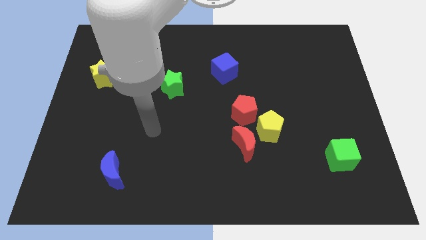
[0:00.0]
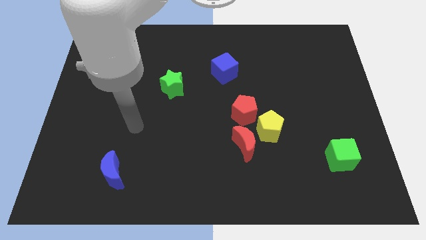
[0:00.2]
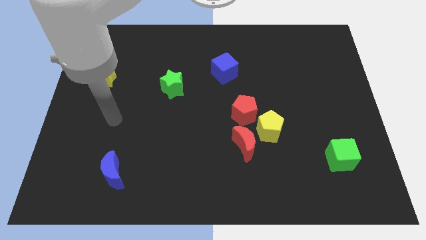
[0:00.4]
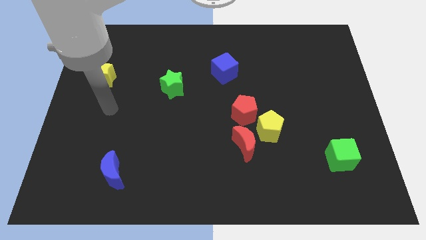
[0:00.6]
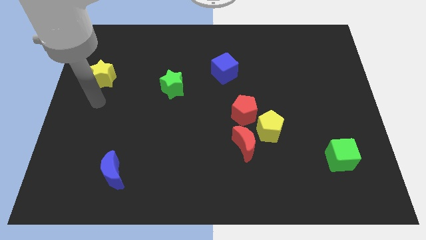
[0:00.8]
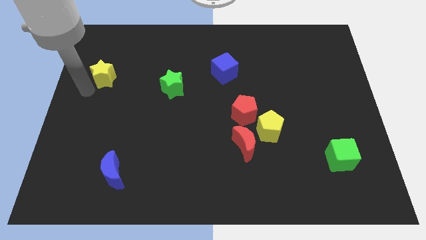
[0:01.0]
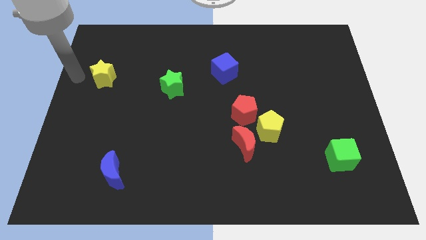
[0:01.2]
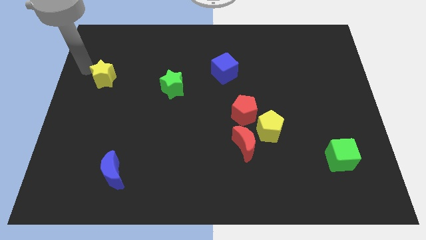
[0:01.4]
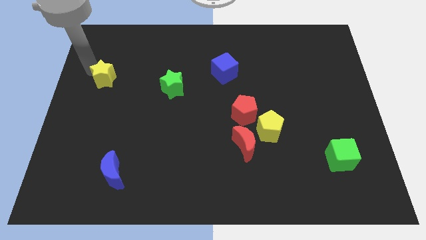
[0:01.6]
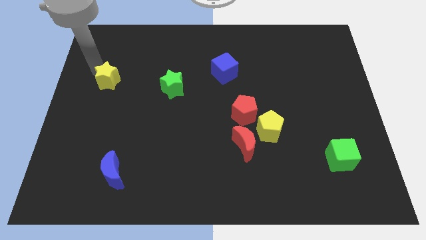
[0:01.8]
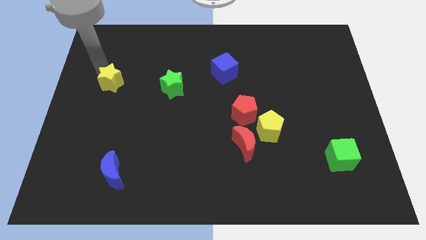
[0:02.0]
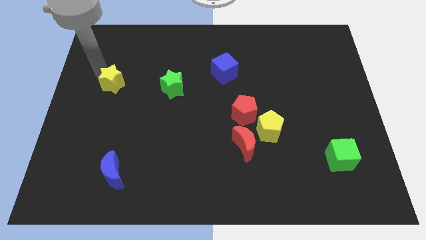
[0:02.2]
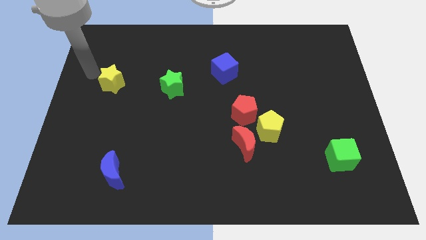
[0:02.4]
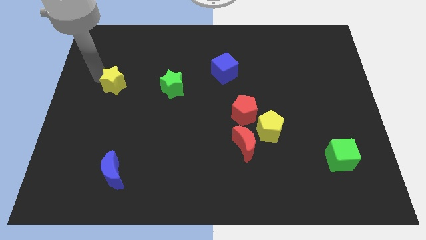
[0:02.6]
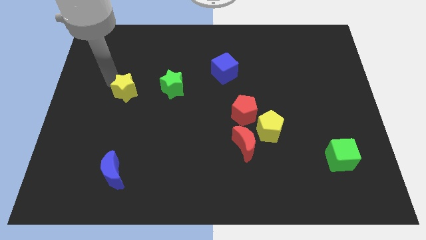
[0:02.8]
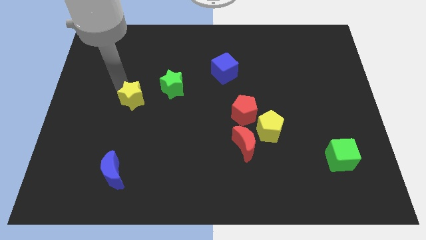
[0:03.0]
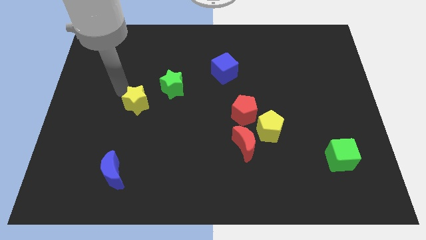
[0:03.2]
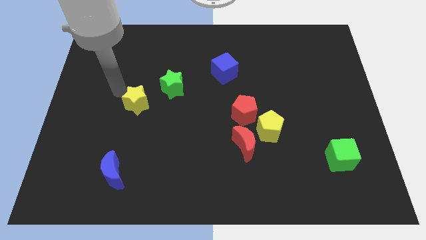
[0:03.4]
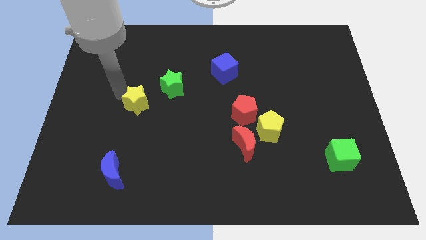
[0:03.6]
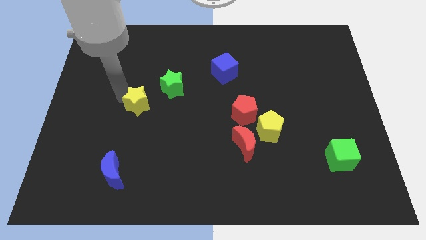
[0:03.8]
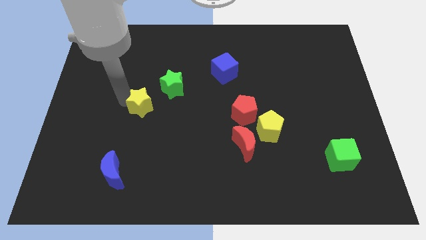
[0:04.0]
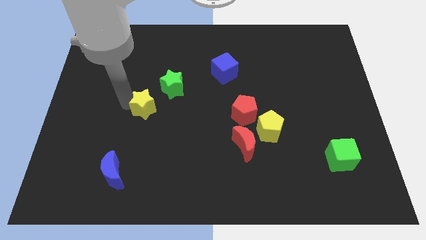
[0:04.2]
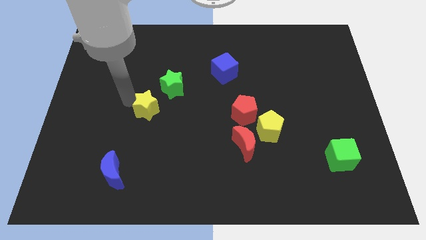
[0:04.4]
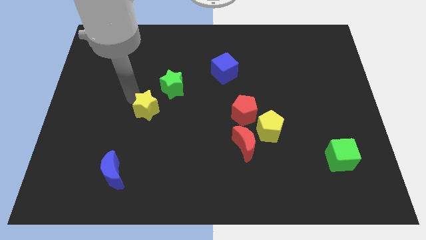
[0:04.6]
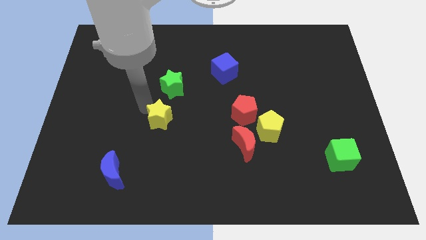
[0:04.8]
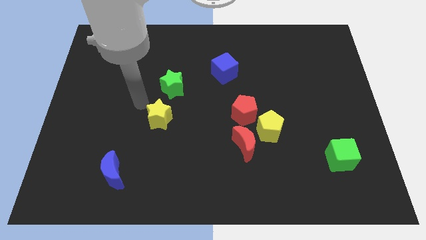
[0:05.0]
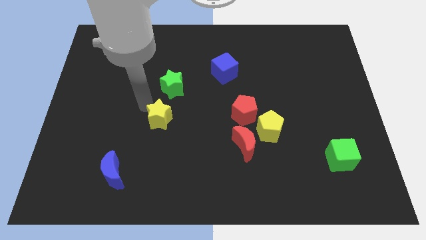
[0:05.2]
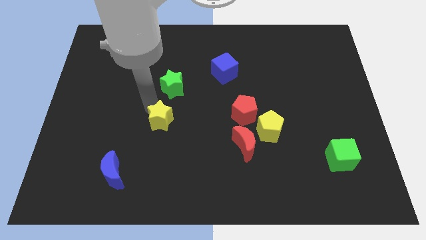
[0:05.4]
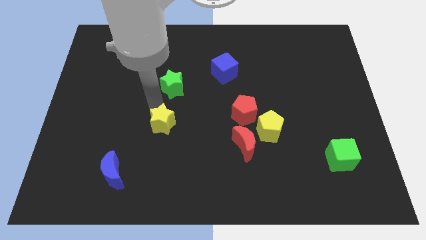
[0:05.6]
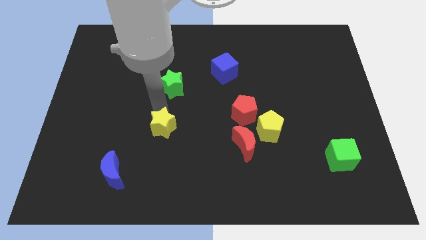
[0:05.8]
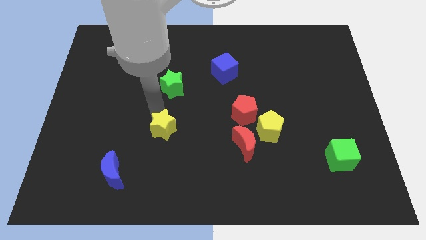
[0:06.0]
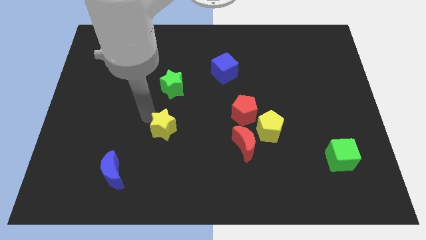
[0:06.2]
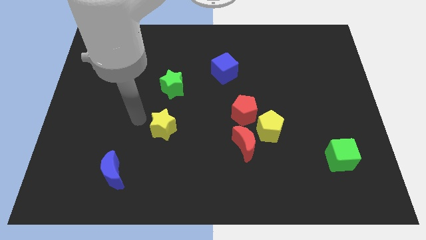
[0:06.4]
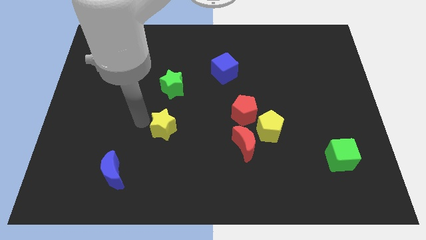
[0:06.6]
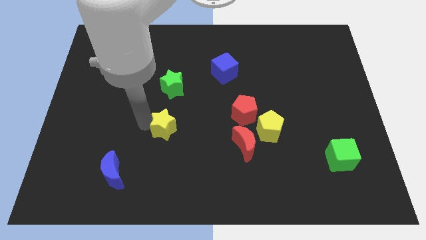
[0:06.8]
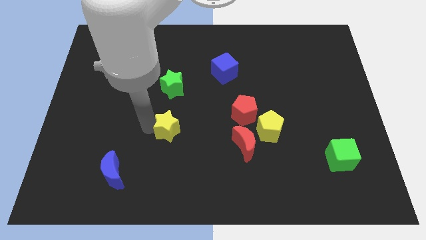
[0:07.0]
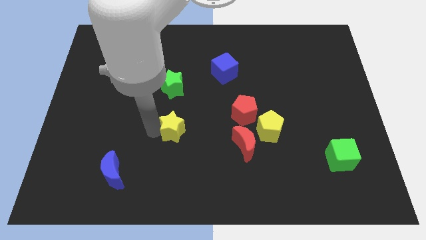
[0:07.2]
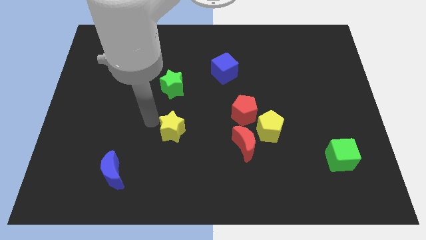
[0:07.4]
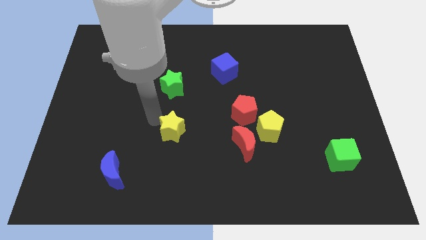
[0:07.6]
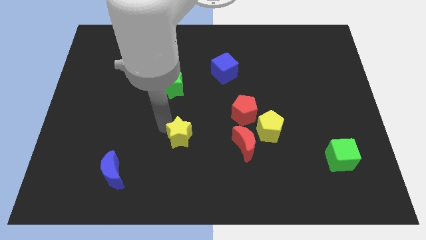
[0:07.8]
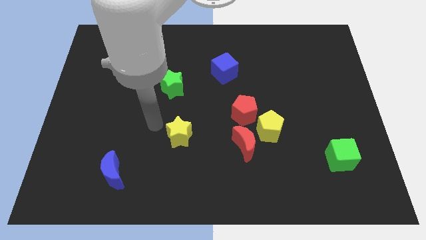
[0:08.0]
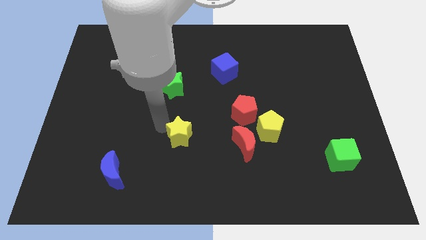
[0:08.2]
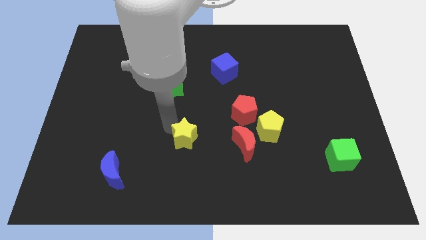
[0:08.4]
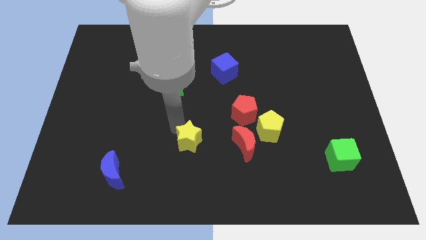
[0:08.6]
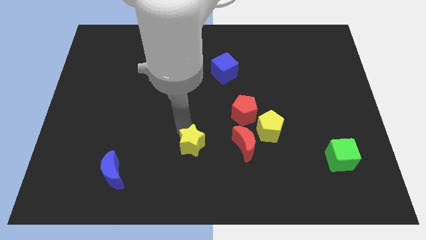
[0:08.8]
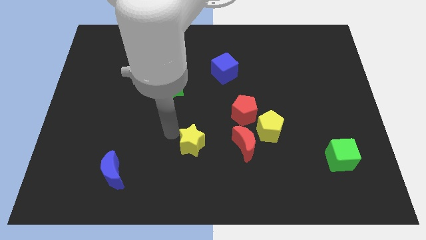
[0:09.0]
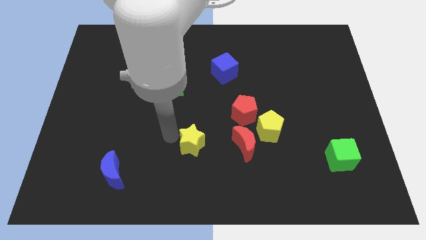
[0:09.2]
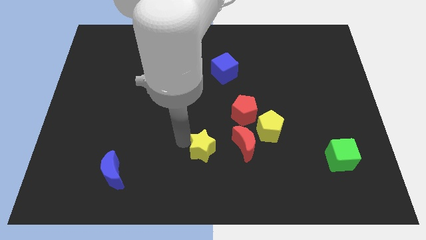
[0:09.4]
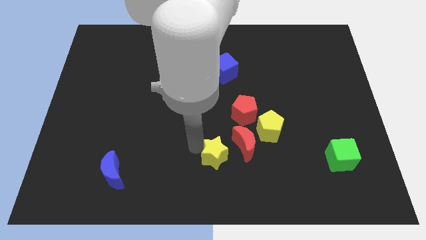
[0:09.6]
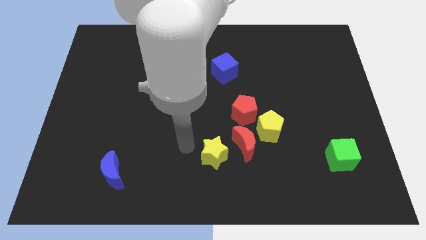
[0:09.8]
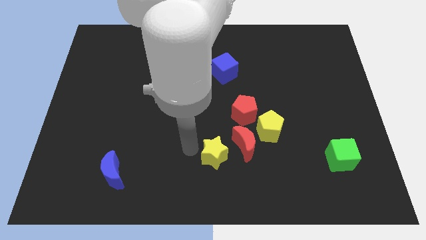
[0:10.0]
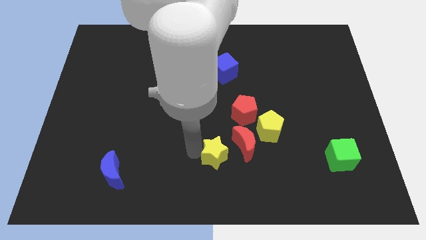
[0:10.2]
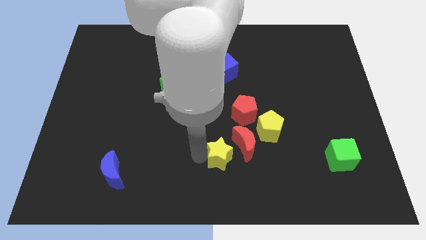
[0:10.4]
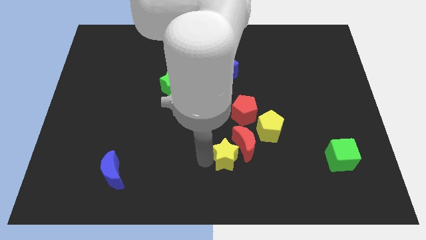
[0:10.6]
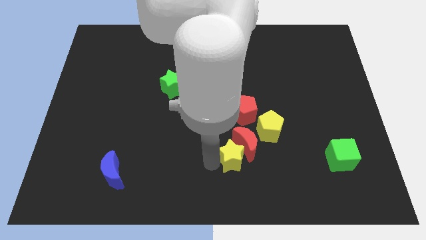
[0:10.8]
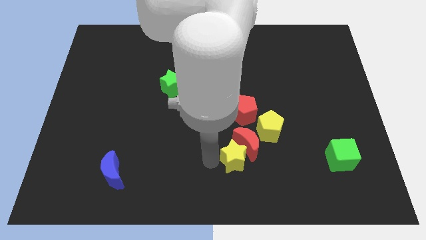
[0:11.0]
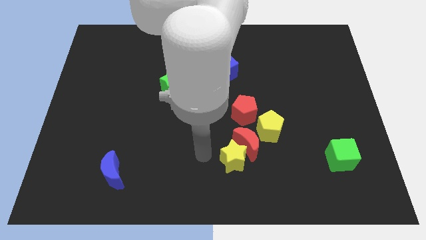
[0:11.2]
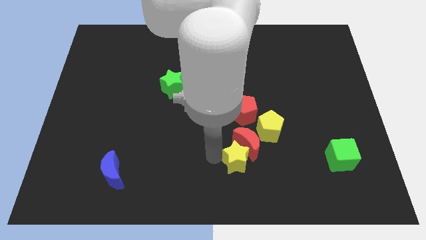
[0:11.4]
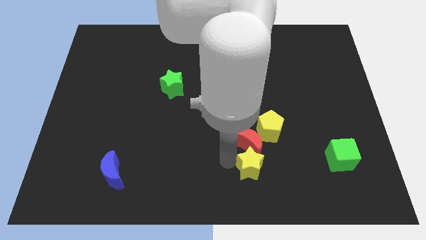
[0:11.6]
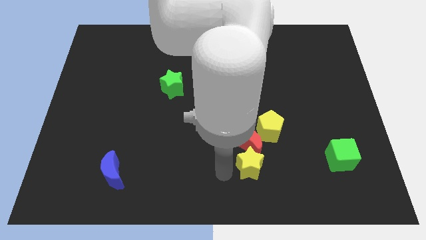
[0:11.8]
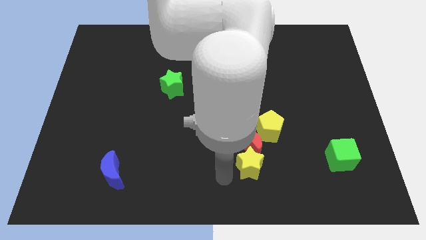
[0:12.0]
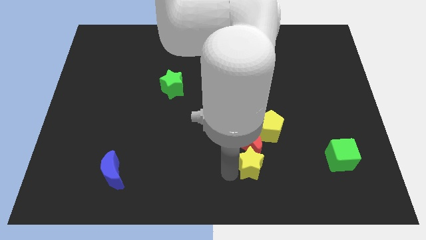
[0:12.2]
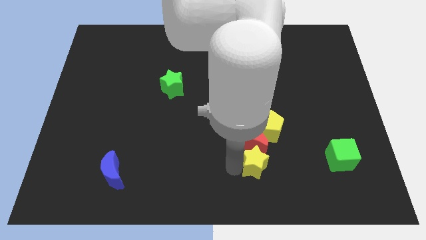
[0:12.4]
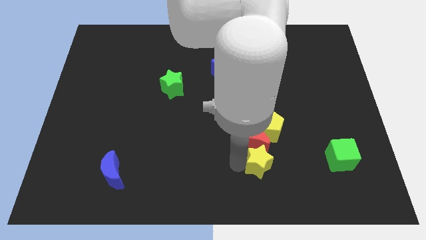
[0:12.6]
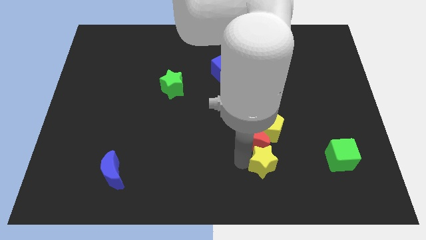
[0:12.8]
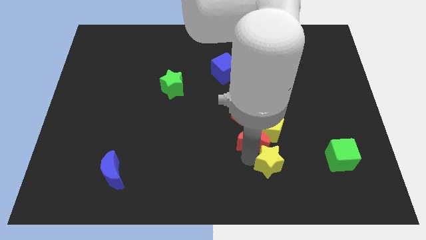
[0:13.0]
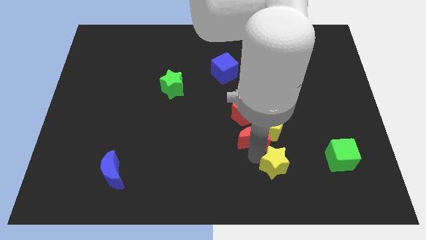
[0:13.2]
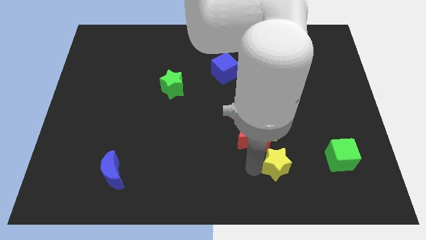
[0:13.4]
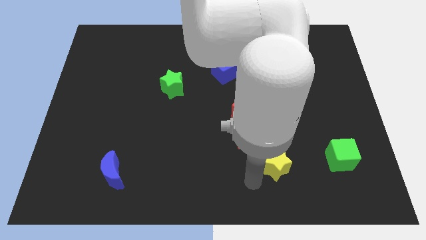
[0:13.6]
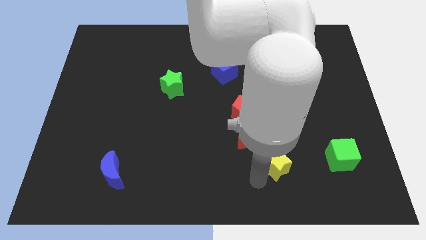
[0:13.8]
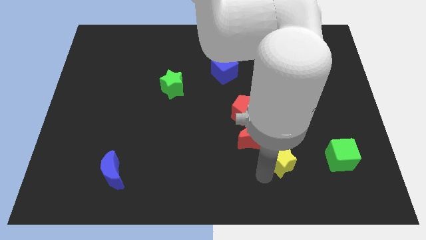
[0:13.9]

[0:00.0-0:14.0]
move the yellow star to the bottom right side of the yellow pentagon
